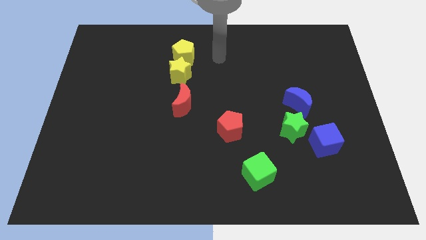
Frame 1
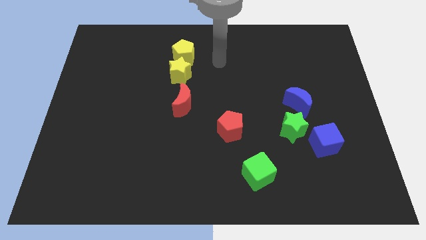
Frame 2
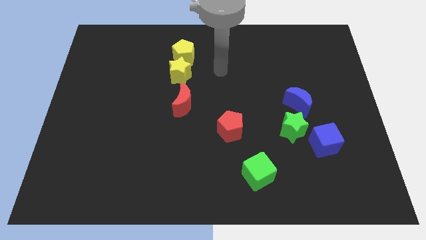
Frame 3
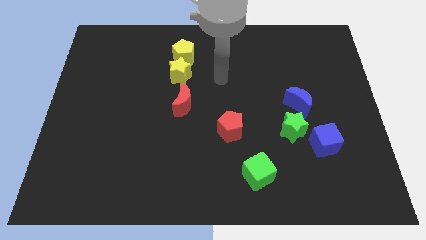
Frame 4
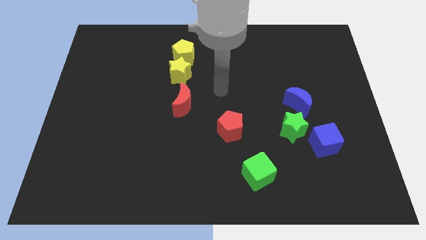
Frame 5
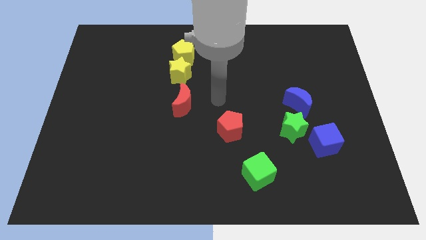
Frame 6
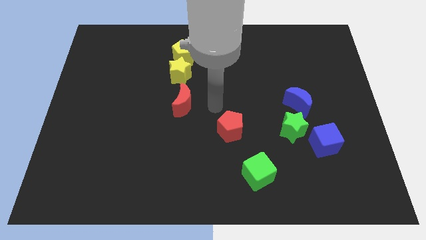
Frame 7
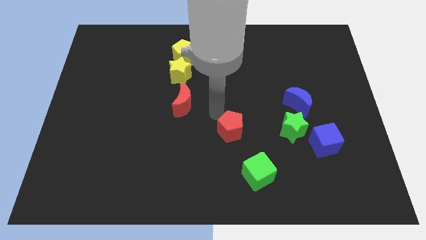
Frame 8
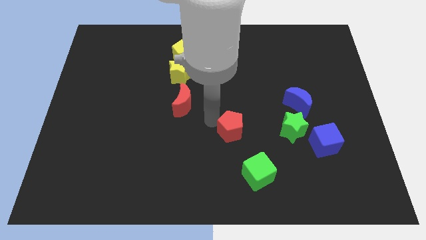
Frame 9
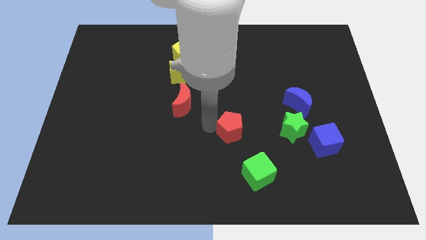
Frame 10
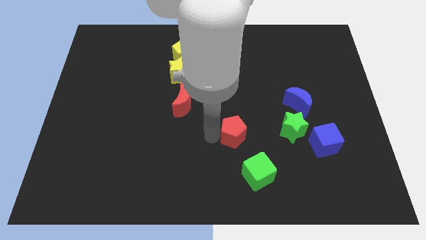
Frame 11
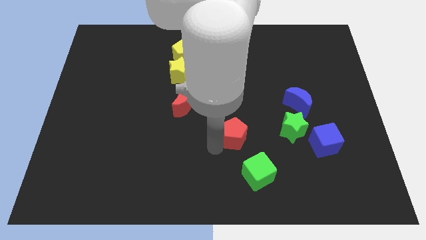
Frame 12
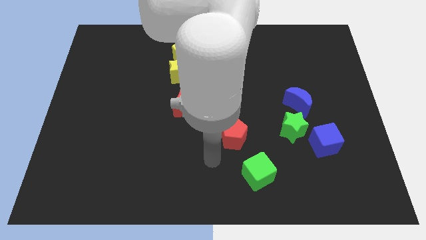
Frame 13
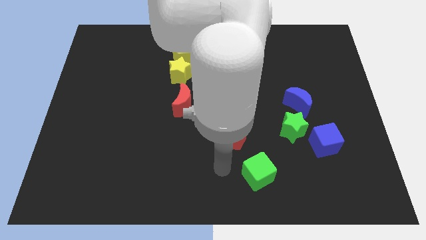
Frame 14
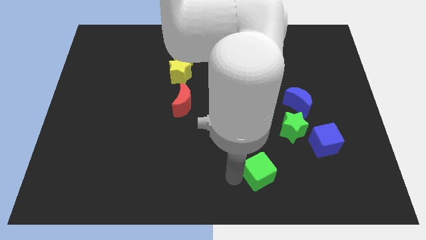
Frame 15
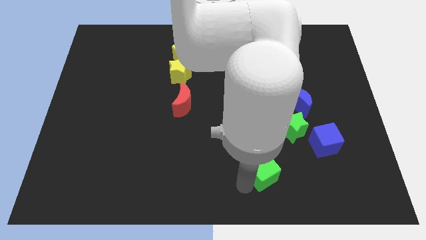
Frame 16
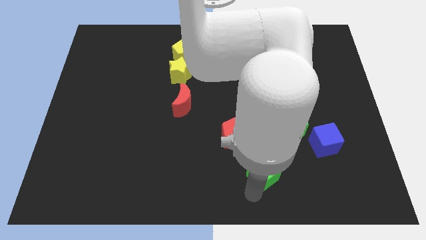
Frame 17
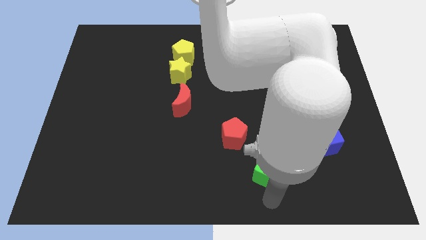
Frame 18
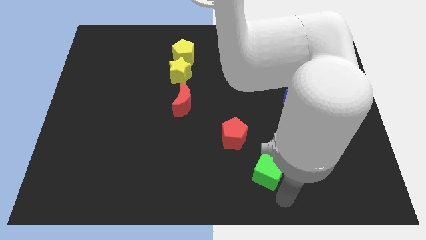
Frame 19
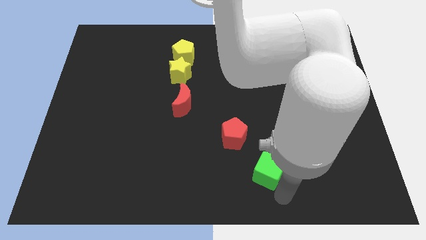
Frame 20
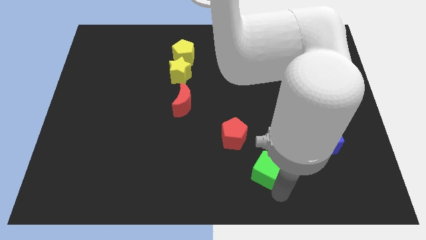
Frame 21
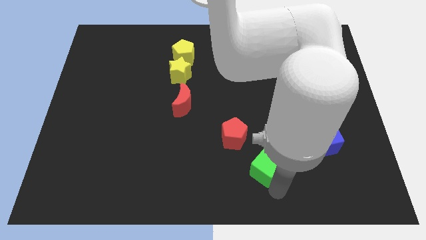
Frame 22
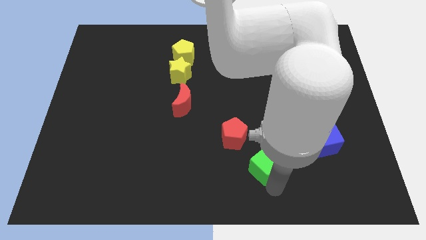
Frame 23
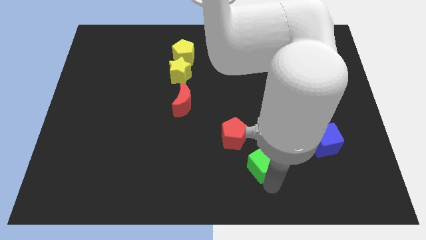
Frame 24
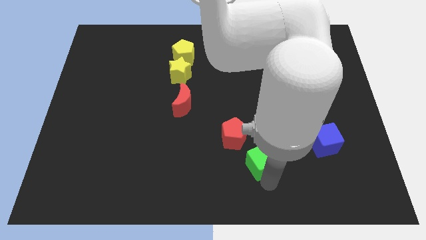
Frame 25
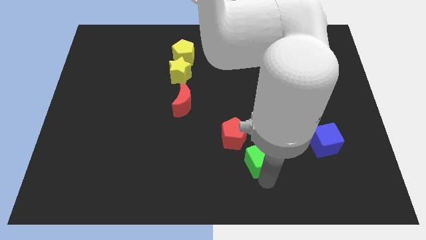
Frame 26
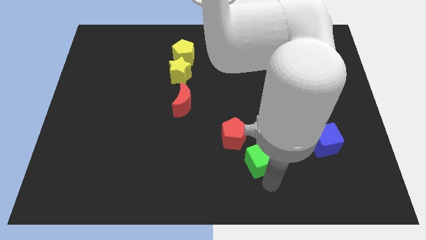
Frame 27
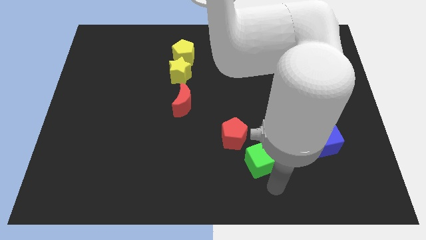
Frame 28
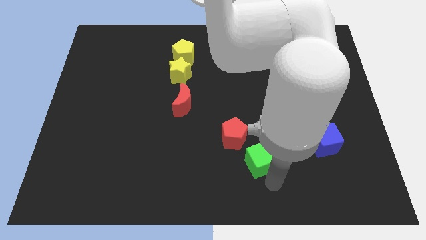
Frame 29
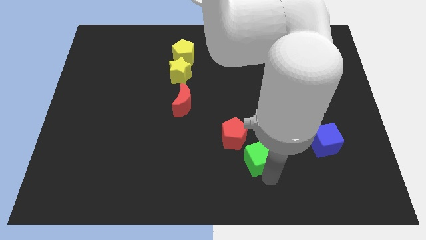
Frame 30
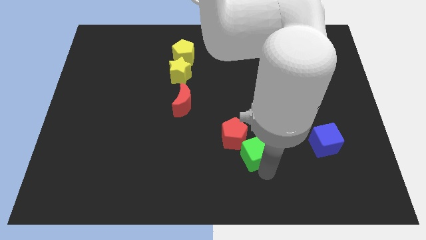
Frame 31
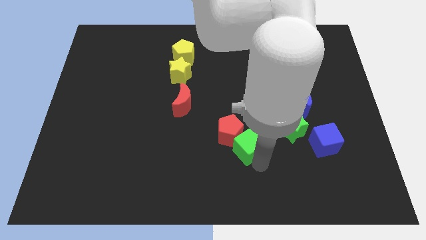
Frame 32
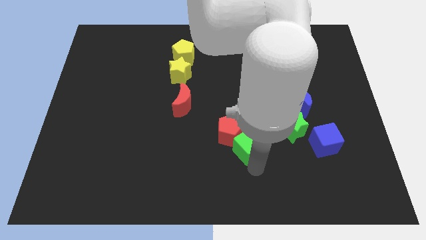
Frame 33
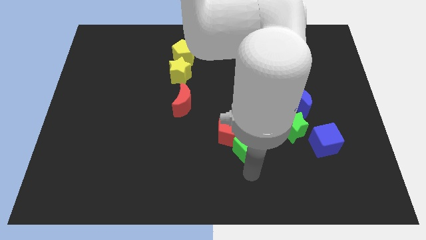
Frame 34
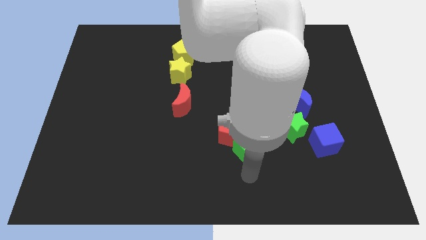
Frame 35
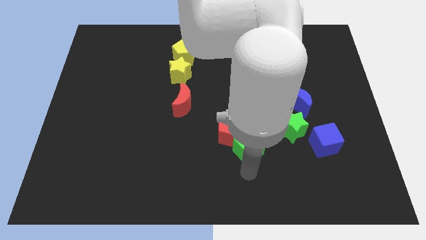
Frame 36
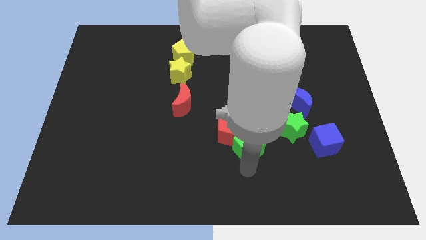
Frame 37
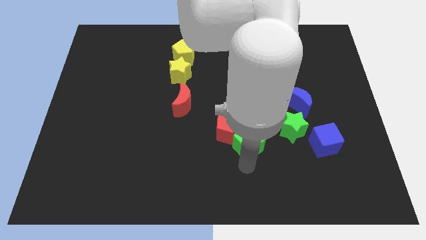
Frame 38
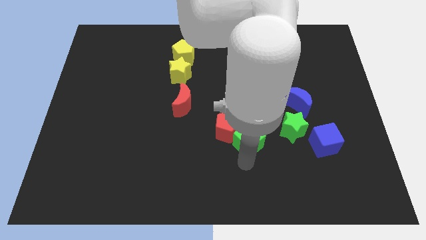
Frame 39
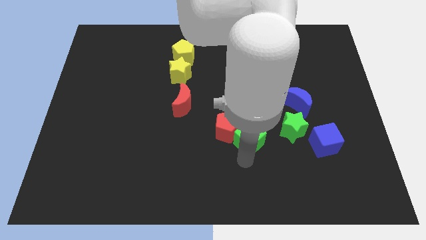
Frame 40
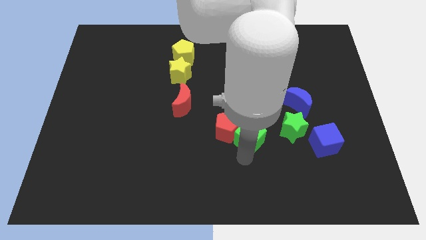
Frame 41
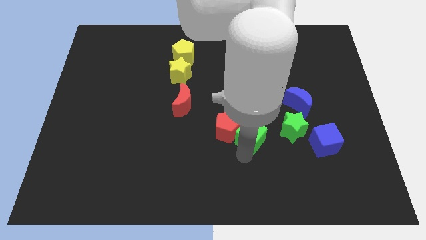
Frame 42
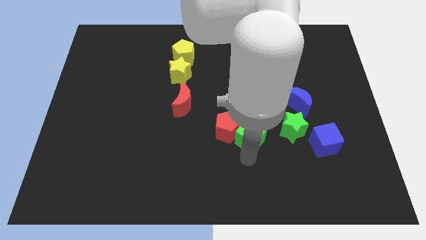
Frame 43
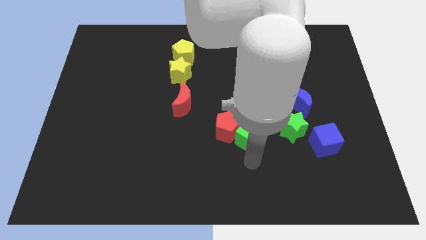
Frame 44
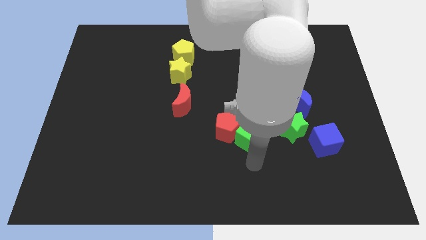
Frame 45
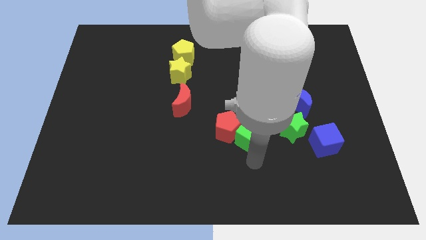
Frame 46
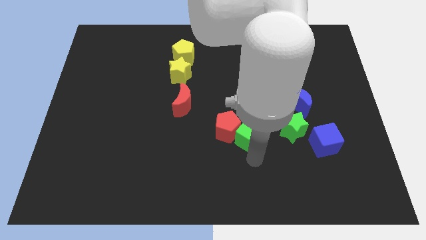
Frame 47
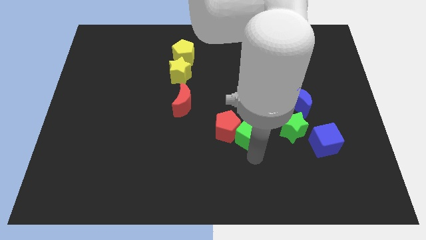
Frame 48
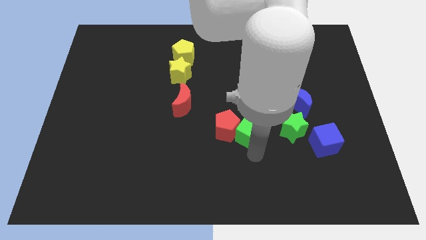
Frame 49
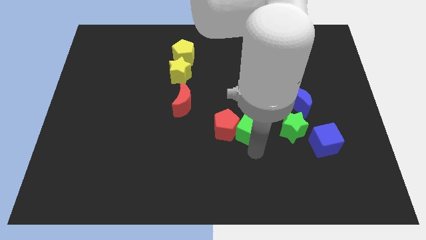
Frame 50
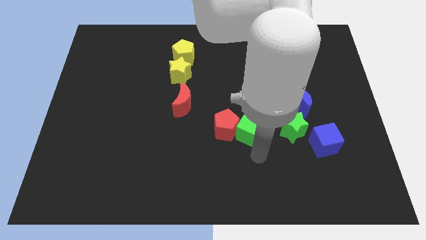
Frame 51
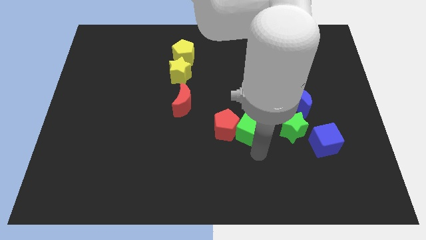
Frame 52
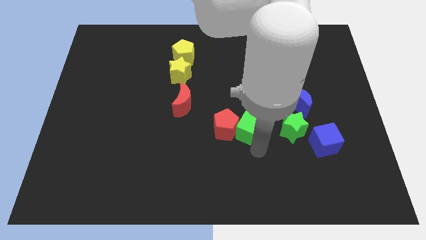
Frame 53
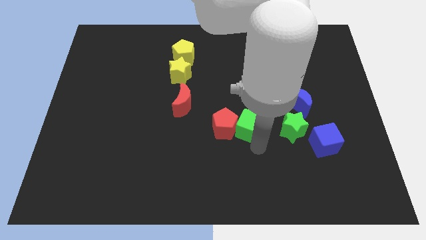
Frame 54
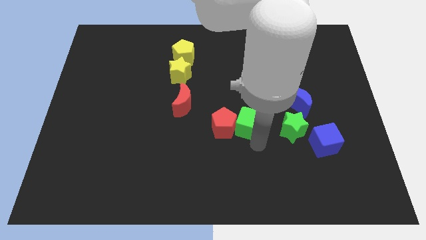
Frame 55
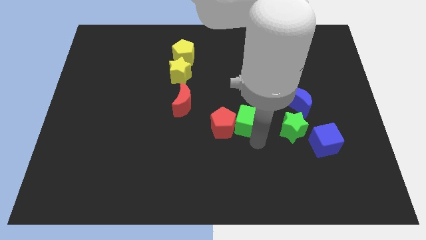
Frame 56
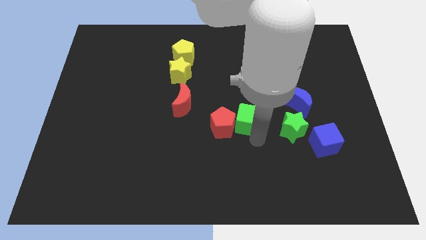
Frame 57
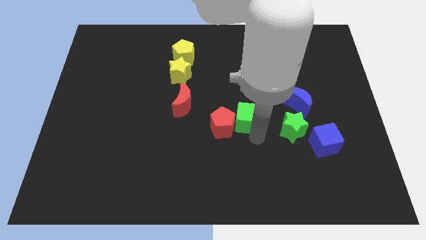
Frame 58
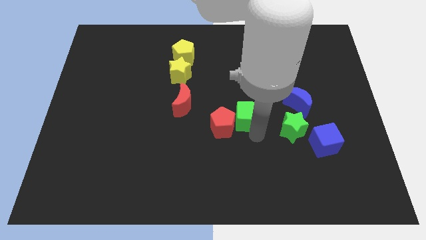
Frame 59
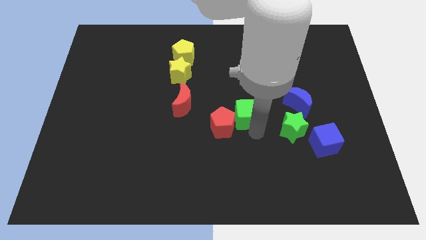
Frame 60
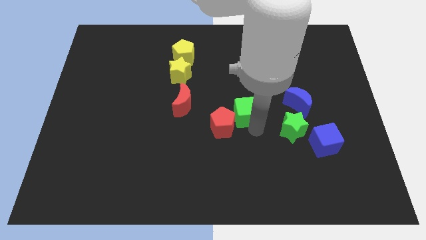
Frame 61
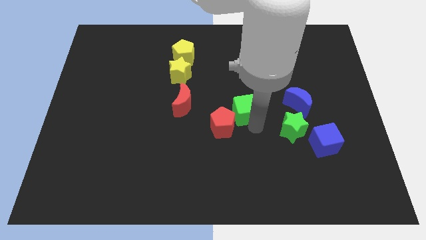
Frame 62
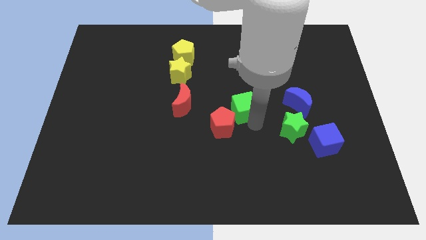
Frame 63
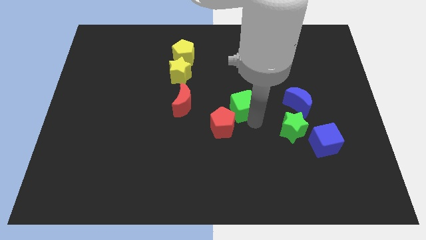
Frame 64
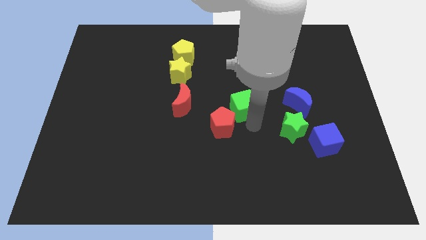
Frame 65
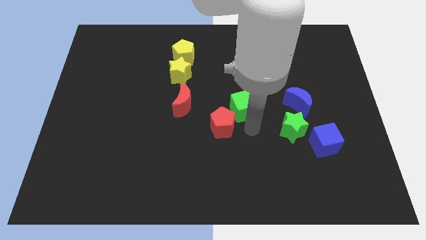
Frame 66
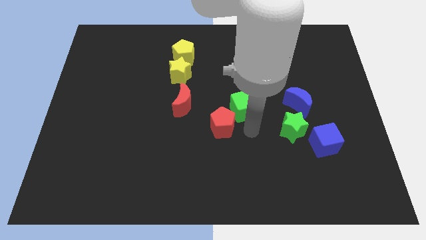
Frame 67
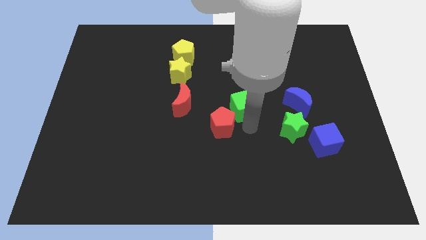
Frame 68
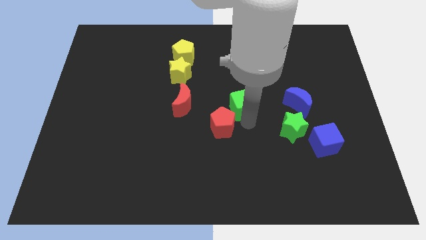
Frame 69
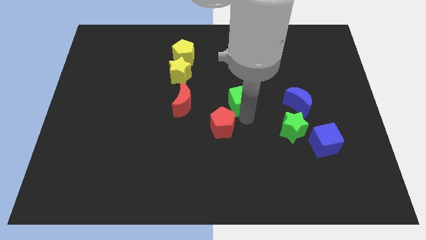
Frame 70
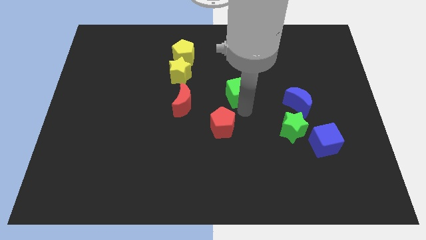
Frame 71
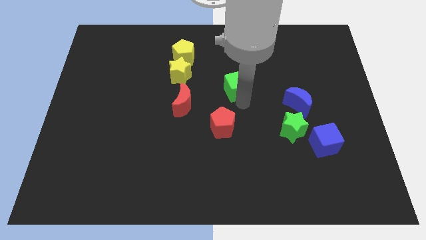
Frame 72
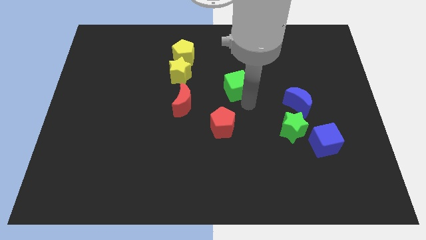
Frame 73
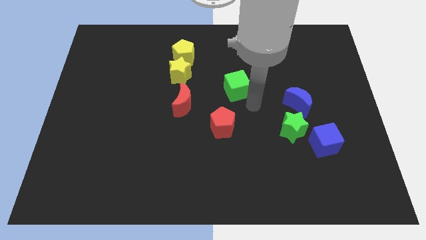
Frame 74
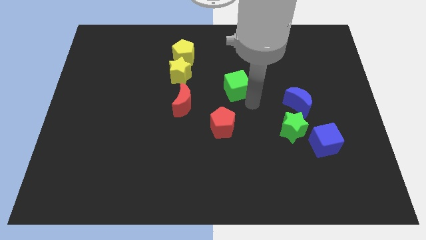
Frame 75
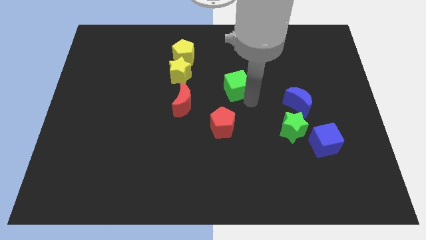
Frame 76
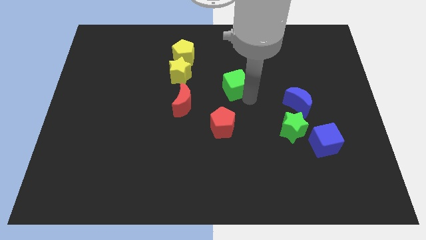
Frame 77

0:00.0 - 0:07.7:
put the green cube right of the yellow star
